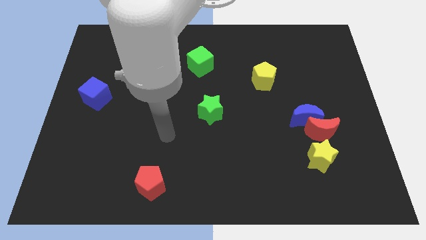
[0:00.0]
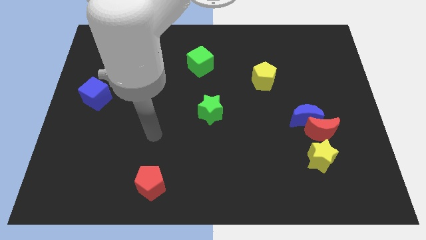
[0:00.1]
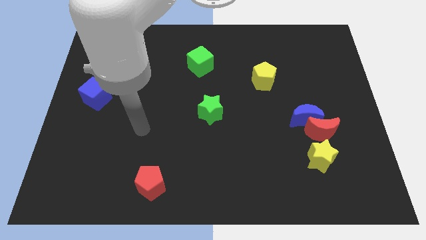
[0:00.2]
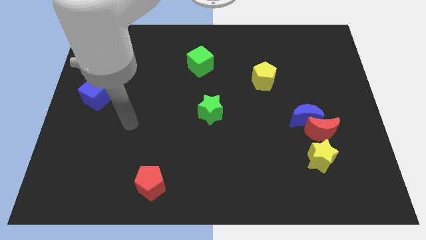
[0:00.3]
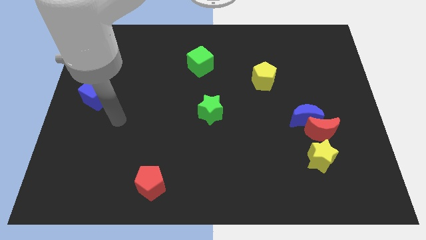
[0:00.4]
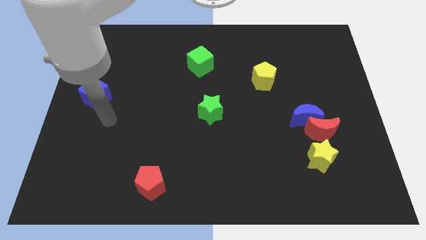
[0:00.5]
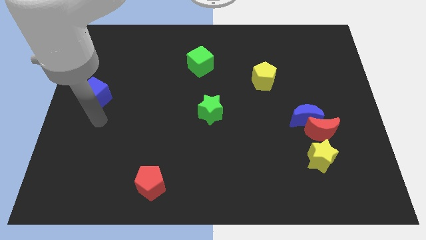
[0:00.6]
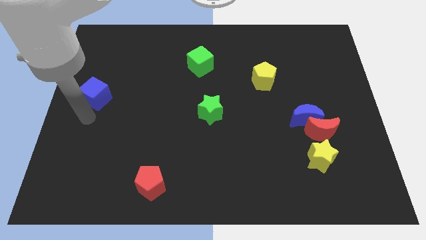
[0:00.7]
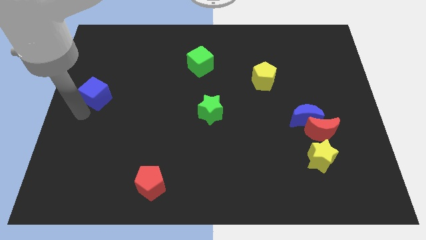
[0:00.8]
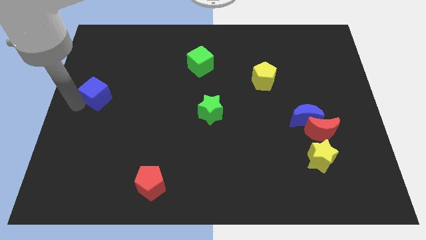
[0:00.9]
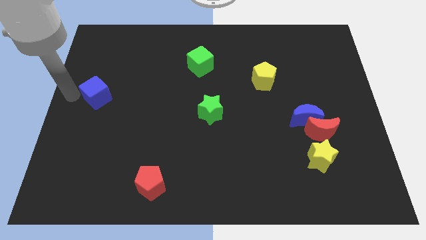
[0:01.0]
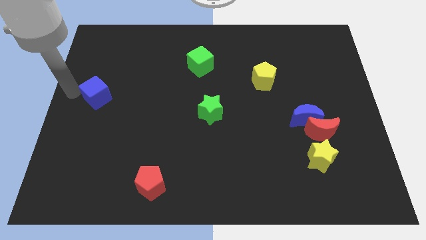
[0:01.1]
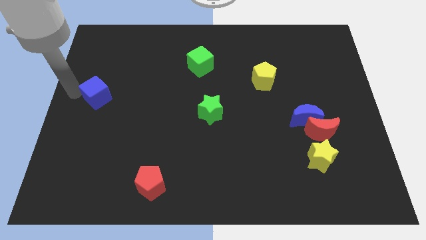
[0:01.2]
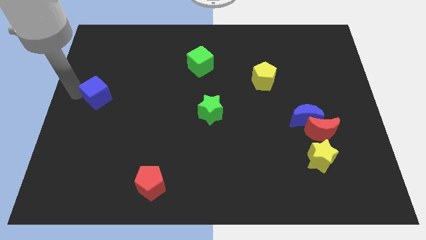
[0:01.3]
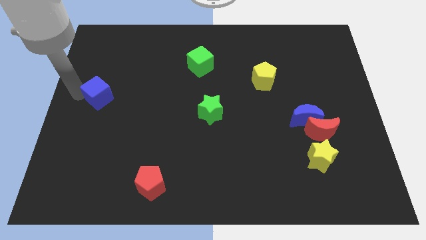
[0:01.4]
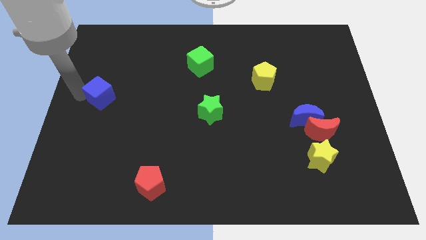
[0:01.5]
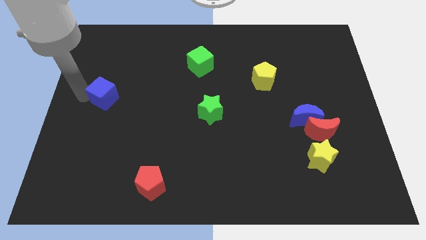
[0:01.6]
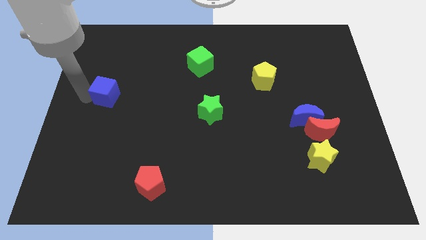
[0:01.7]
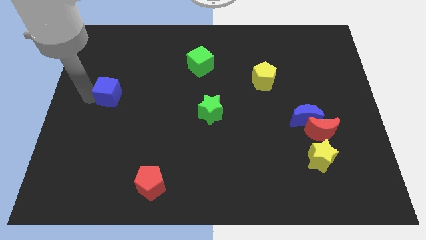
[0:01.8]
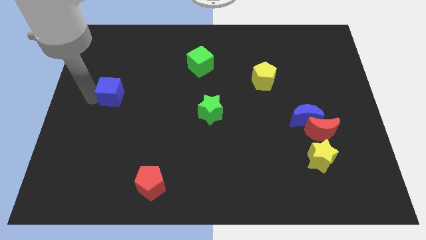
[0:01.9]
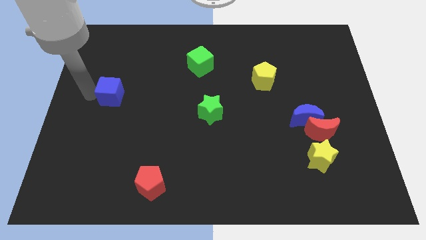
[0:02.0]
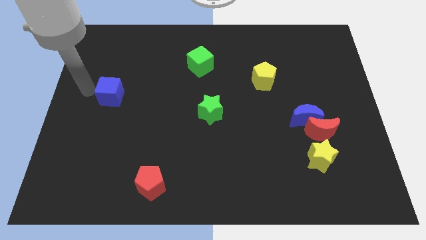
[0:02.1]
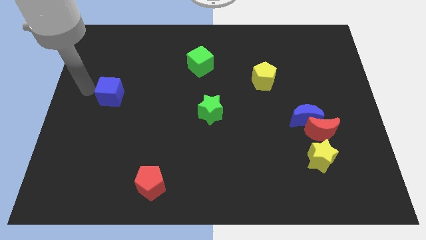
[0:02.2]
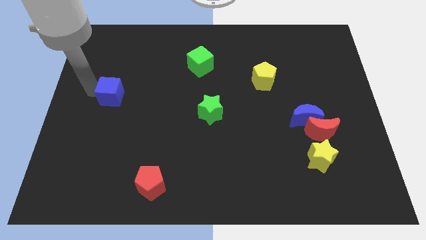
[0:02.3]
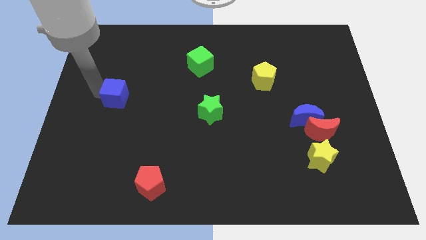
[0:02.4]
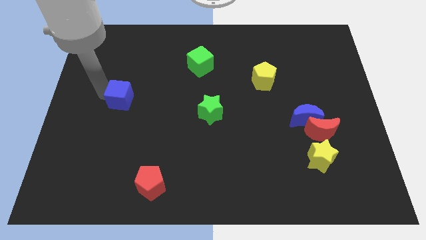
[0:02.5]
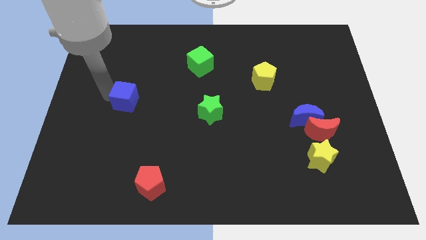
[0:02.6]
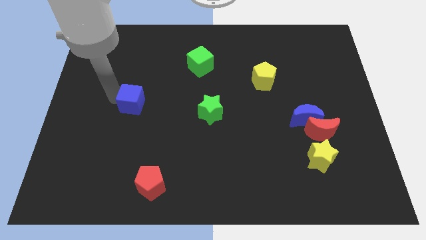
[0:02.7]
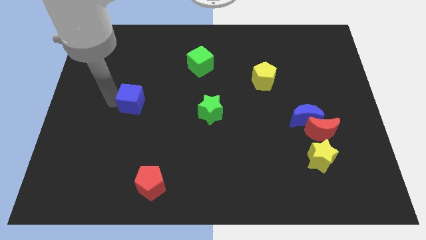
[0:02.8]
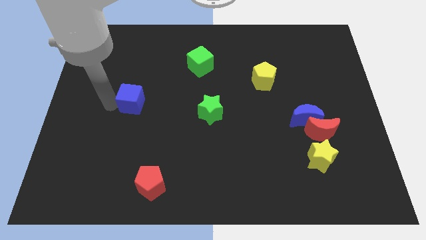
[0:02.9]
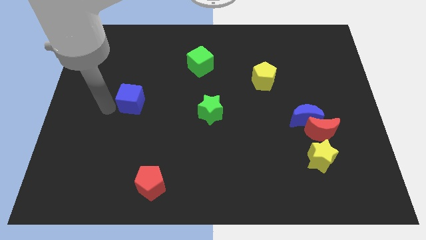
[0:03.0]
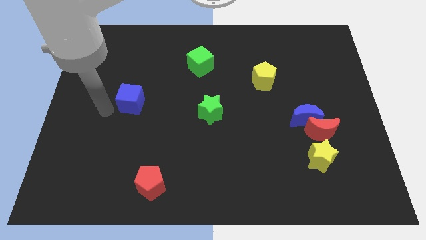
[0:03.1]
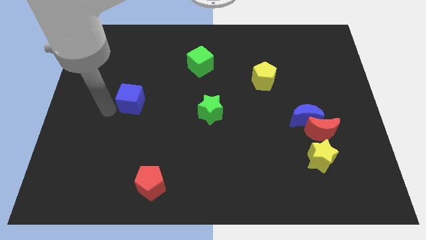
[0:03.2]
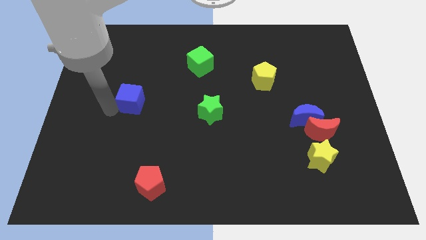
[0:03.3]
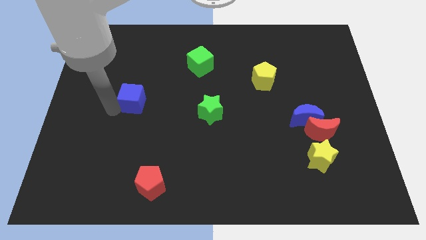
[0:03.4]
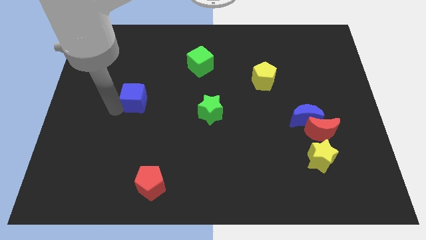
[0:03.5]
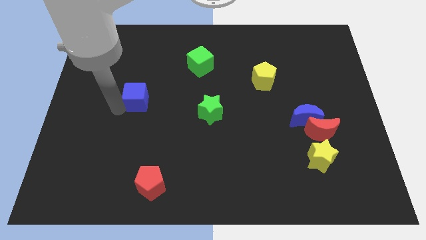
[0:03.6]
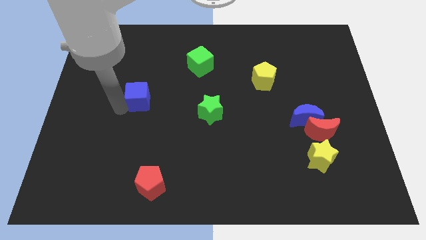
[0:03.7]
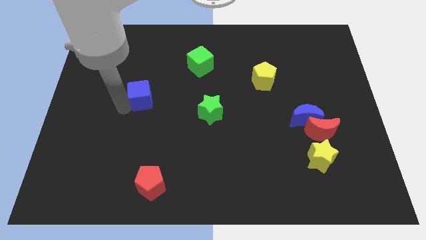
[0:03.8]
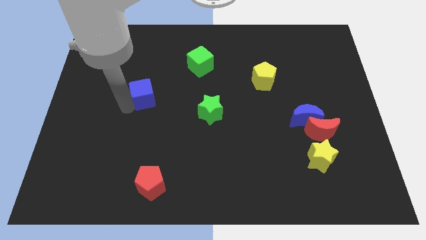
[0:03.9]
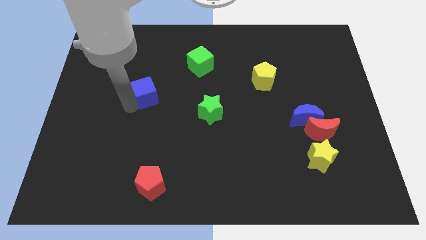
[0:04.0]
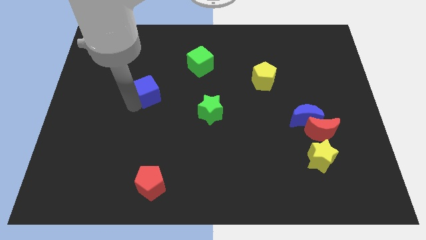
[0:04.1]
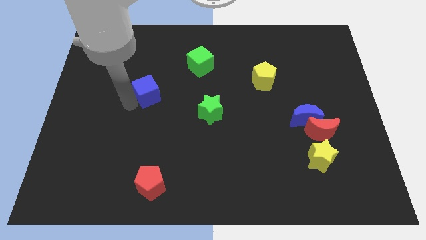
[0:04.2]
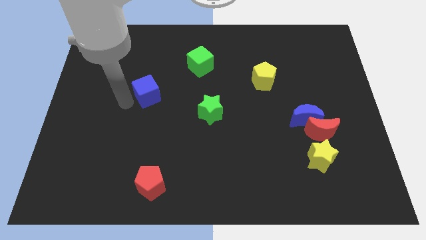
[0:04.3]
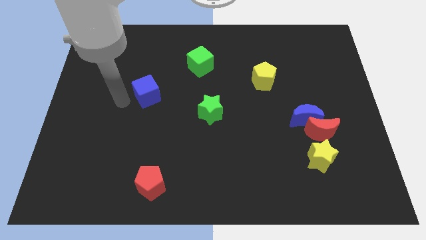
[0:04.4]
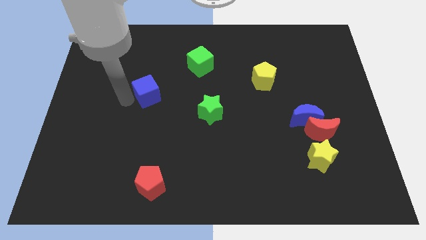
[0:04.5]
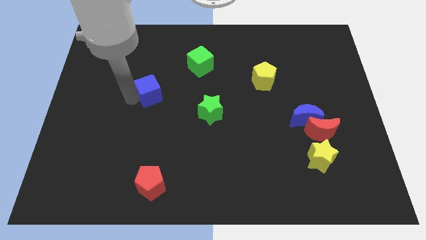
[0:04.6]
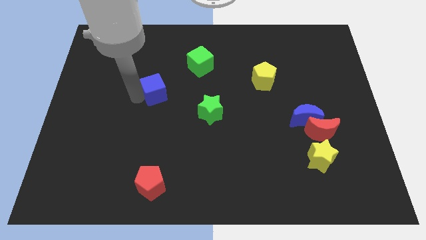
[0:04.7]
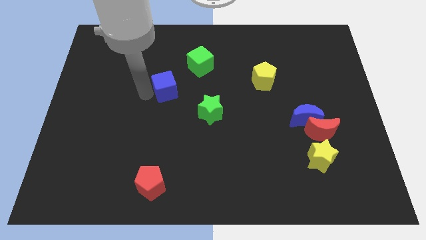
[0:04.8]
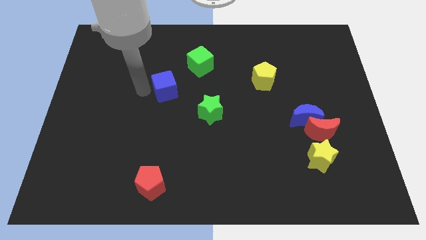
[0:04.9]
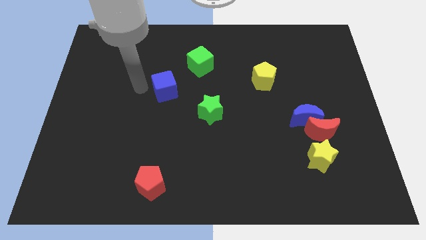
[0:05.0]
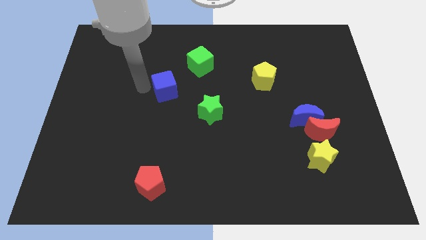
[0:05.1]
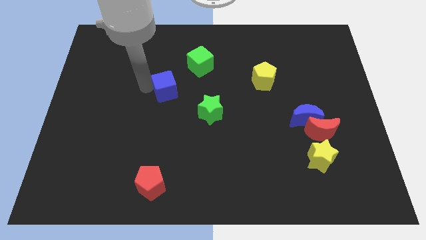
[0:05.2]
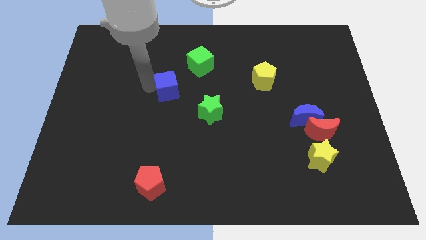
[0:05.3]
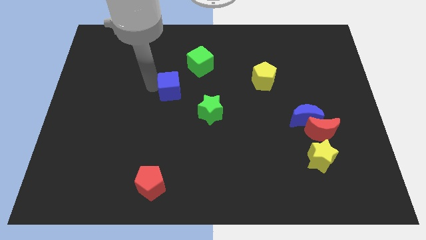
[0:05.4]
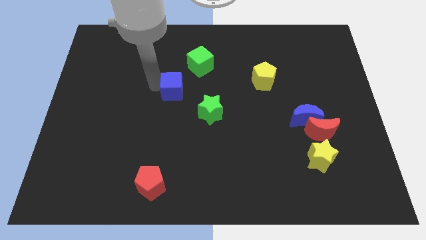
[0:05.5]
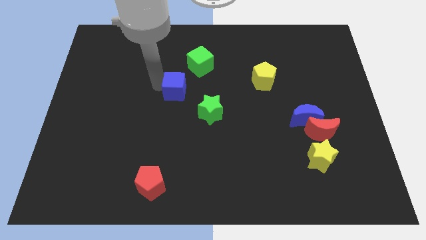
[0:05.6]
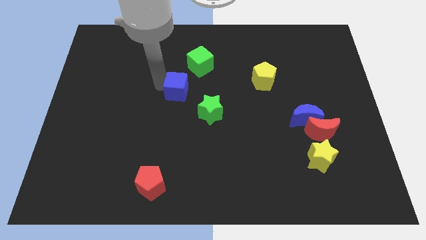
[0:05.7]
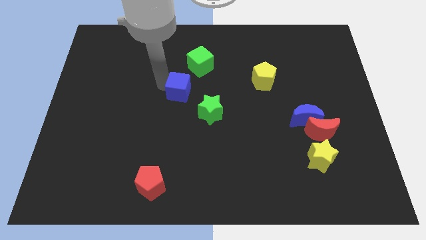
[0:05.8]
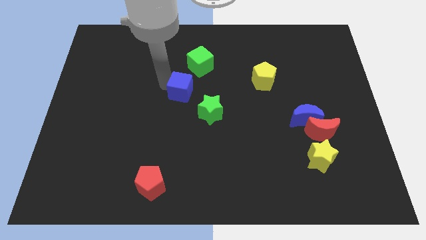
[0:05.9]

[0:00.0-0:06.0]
push the blue cube right

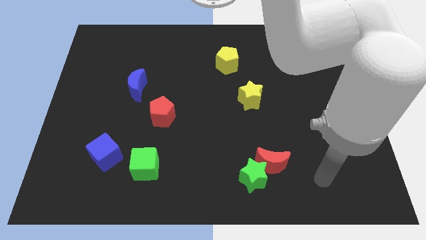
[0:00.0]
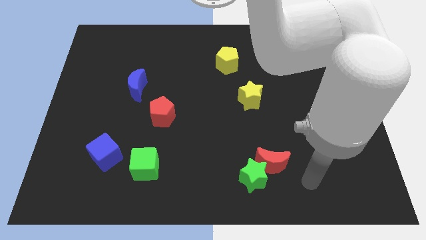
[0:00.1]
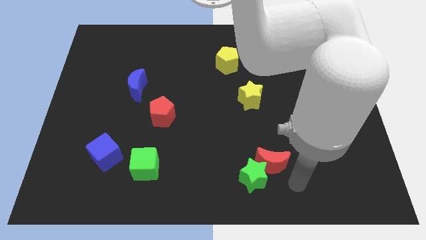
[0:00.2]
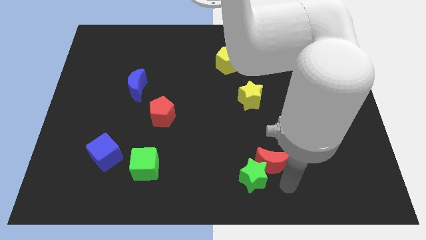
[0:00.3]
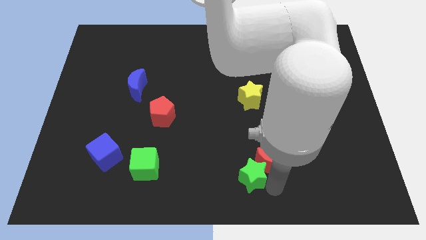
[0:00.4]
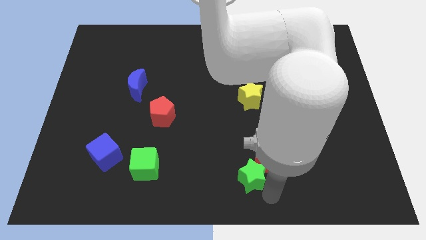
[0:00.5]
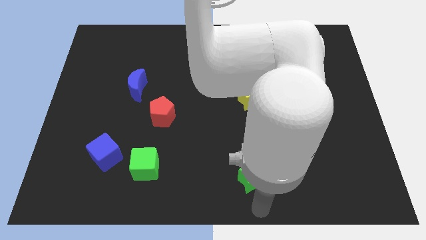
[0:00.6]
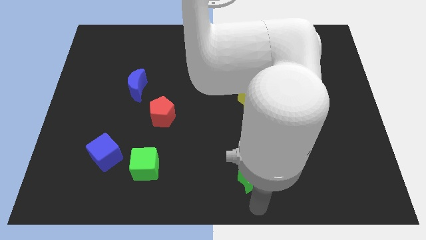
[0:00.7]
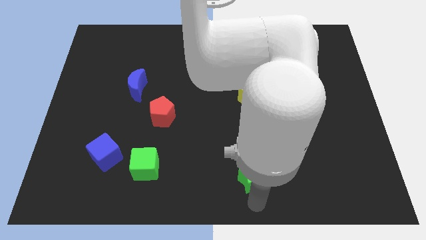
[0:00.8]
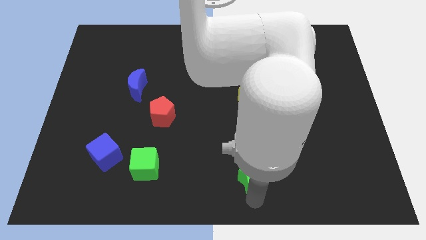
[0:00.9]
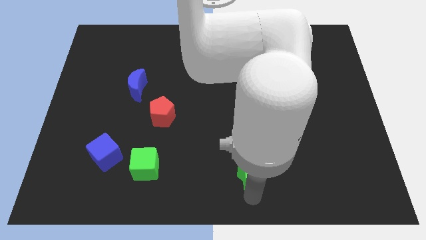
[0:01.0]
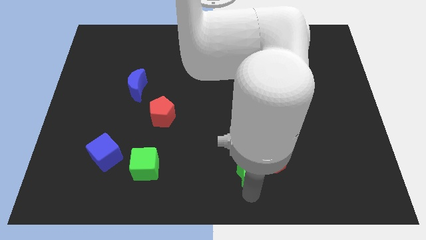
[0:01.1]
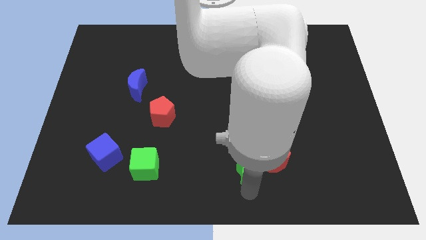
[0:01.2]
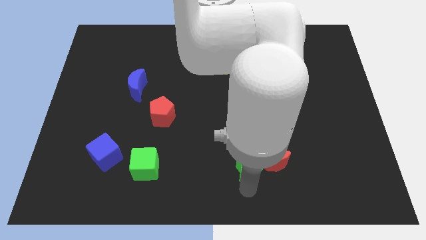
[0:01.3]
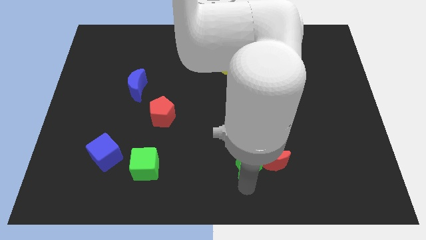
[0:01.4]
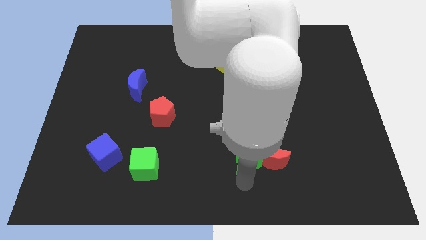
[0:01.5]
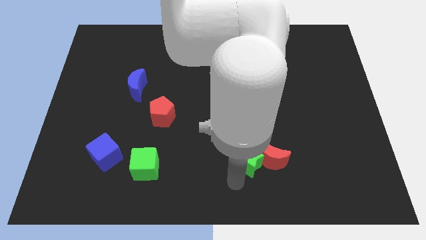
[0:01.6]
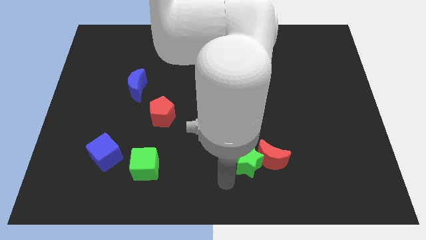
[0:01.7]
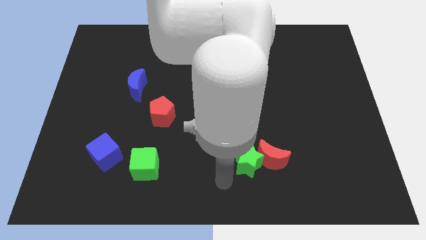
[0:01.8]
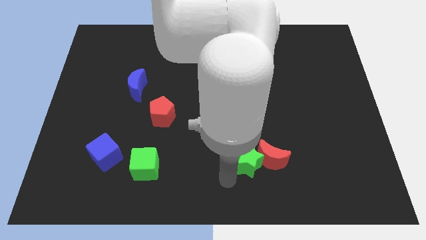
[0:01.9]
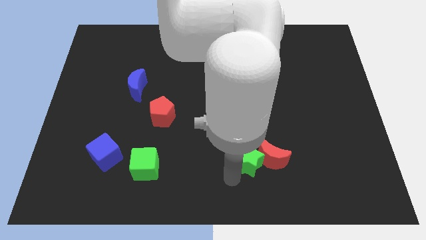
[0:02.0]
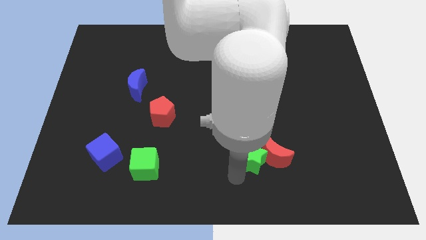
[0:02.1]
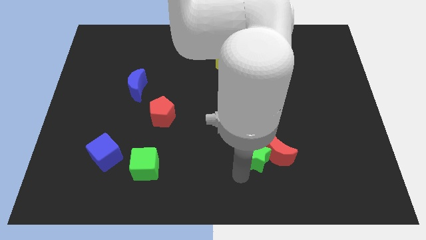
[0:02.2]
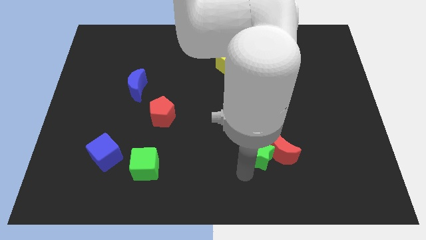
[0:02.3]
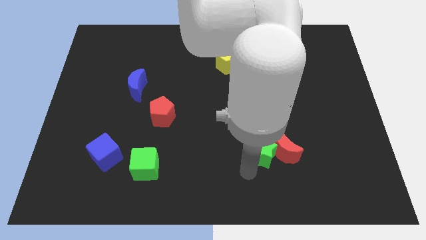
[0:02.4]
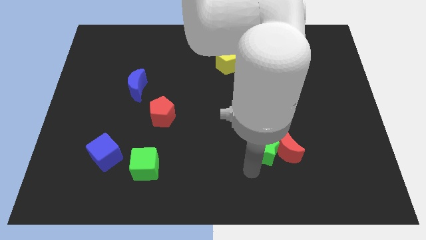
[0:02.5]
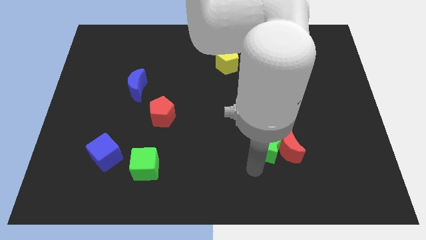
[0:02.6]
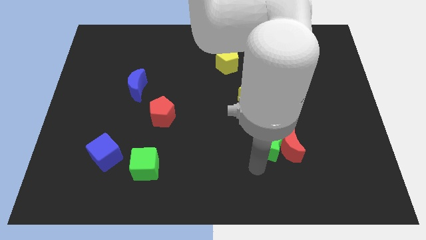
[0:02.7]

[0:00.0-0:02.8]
slightly push the green star diagonally upwards and to the right
